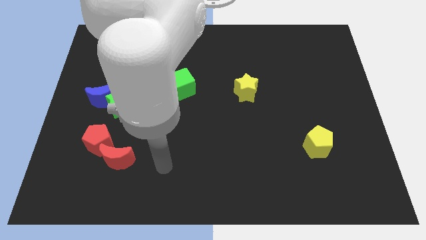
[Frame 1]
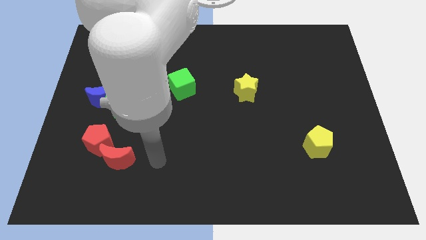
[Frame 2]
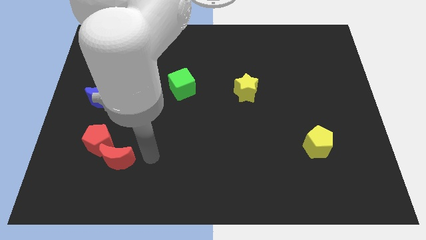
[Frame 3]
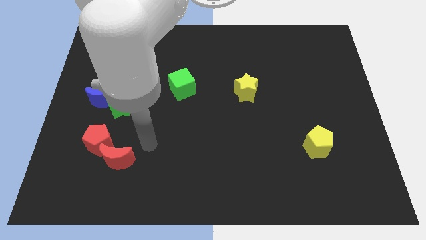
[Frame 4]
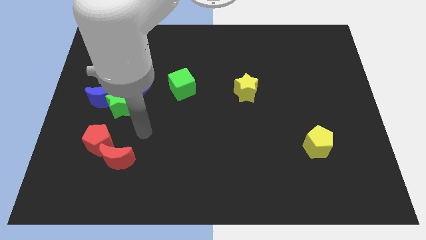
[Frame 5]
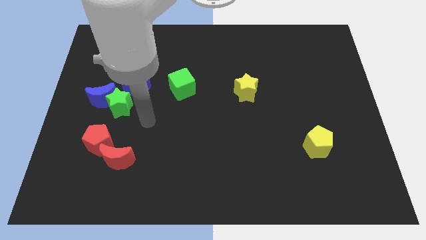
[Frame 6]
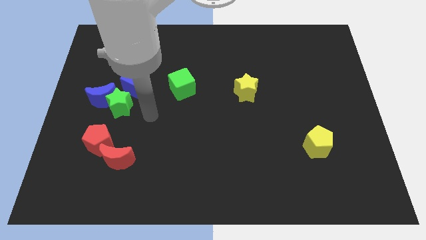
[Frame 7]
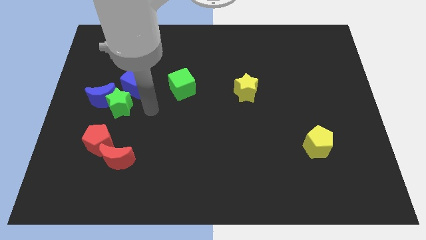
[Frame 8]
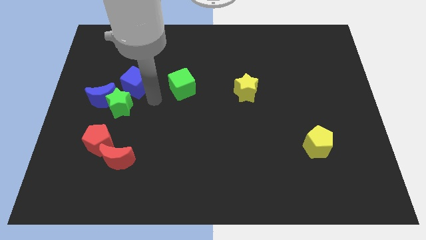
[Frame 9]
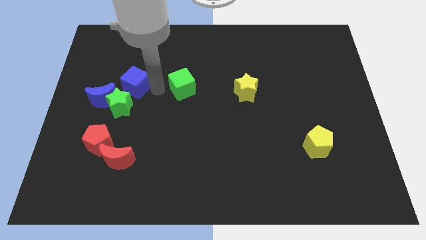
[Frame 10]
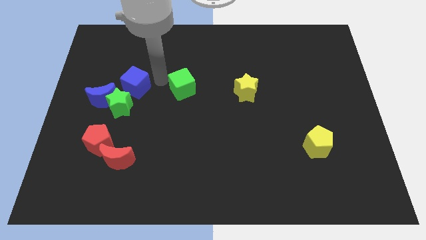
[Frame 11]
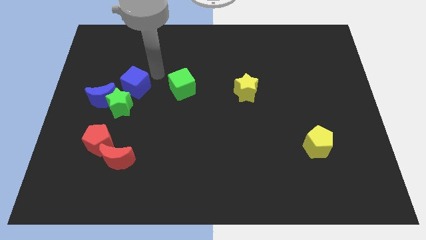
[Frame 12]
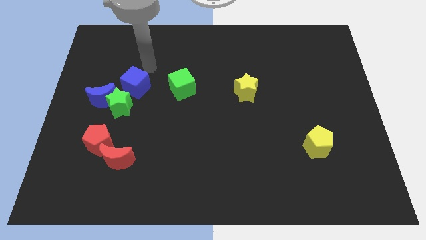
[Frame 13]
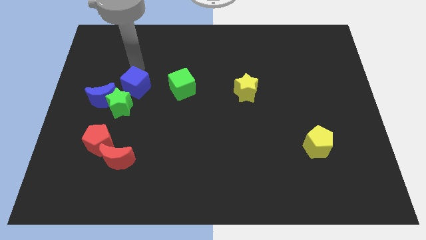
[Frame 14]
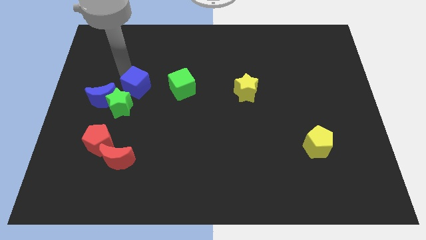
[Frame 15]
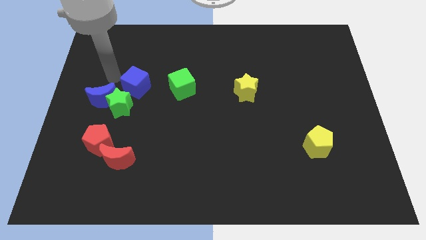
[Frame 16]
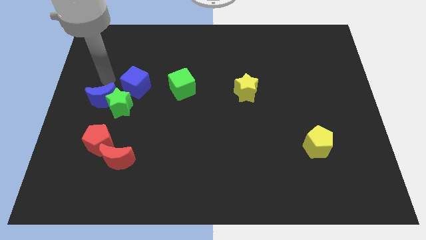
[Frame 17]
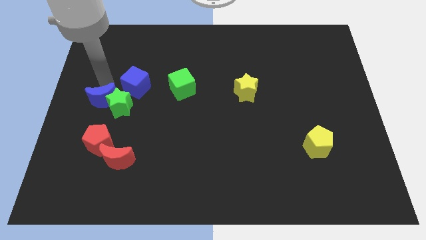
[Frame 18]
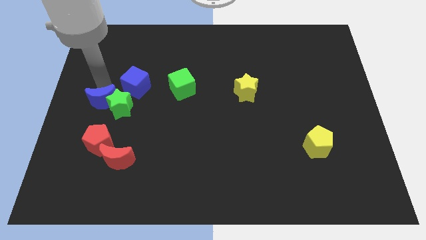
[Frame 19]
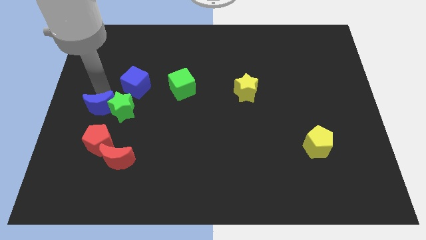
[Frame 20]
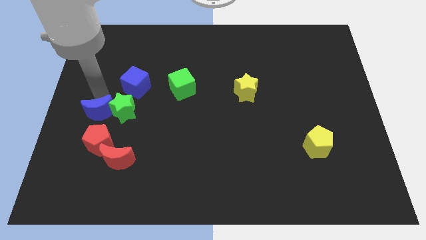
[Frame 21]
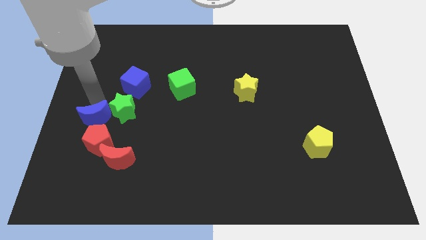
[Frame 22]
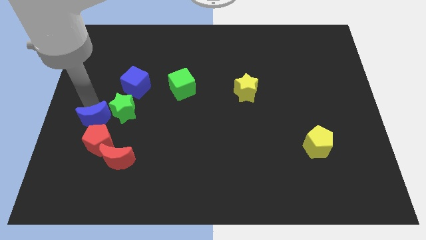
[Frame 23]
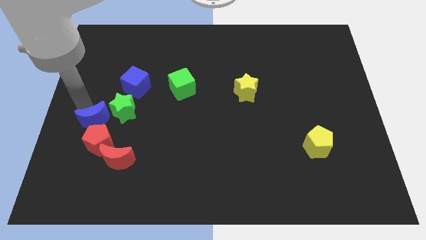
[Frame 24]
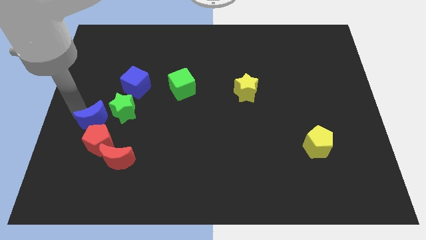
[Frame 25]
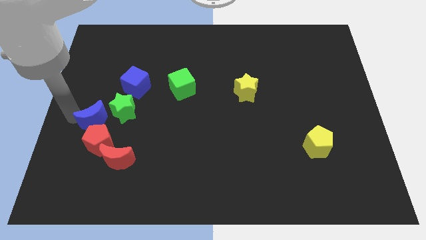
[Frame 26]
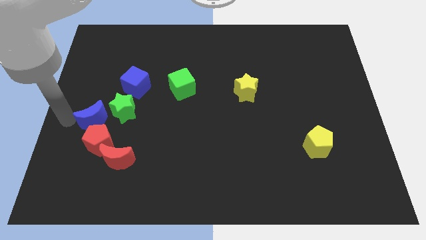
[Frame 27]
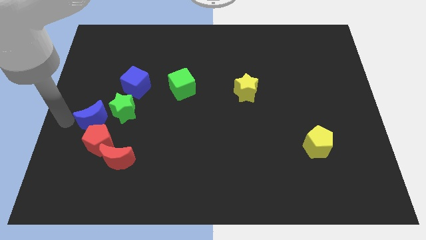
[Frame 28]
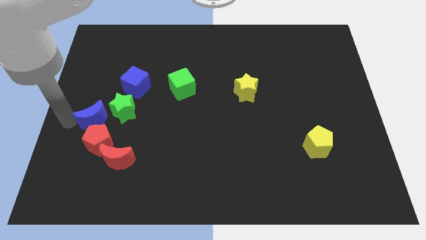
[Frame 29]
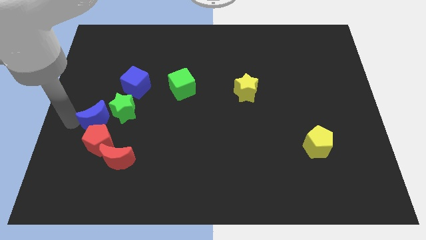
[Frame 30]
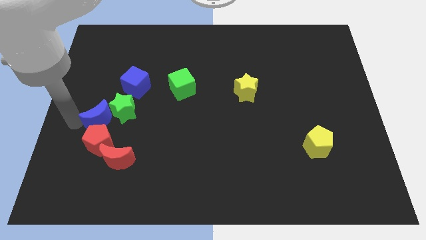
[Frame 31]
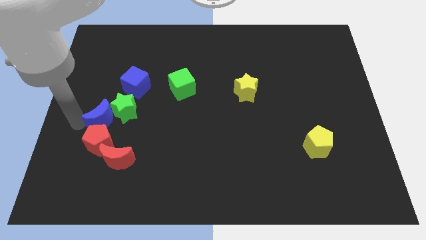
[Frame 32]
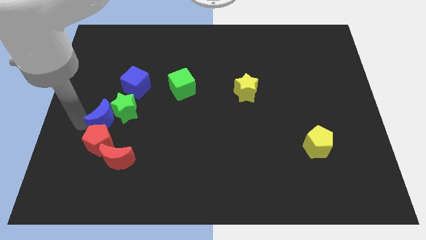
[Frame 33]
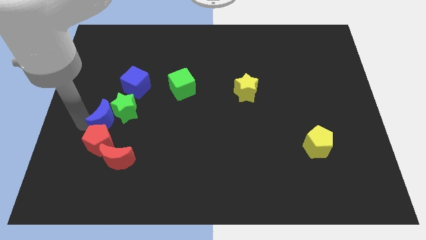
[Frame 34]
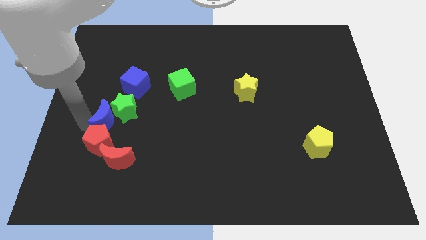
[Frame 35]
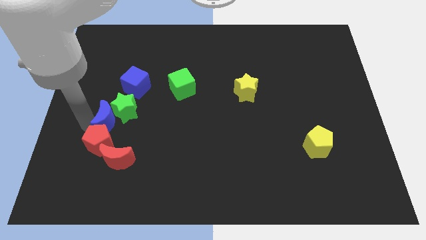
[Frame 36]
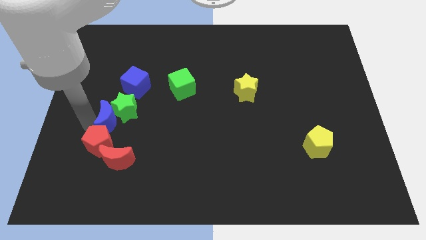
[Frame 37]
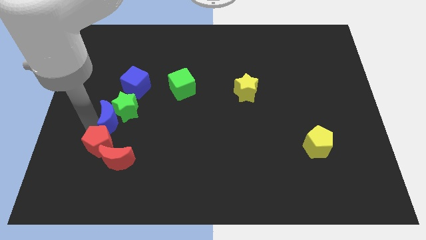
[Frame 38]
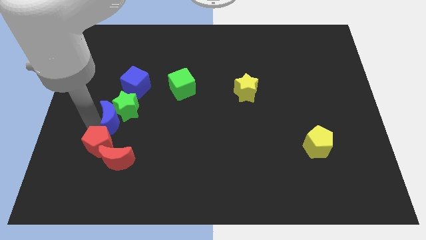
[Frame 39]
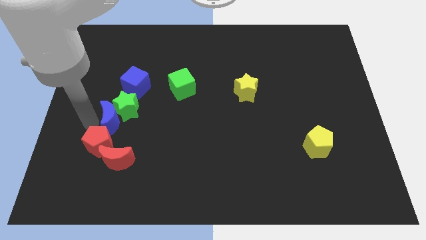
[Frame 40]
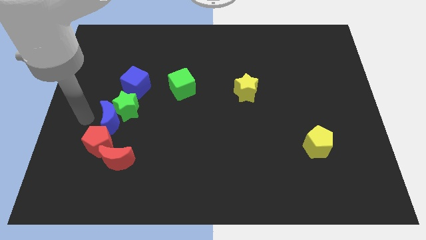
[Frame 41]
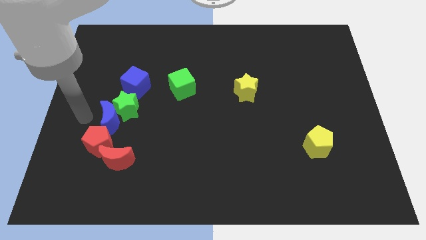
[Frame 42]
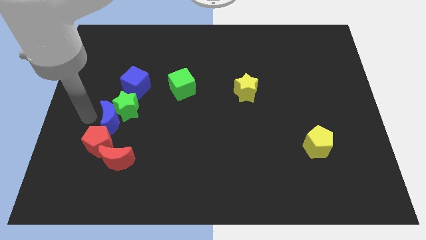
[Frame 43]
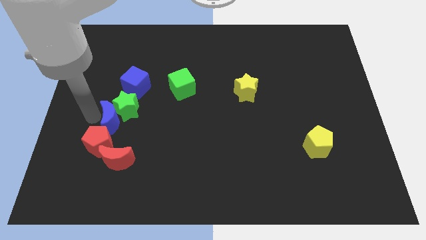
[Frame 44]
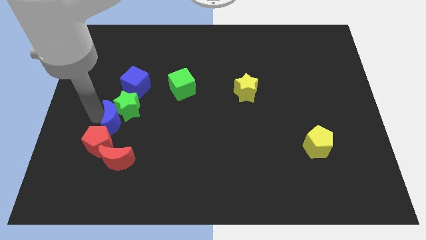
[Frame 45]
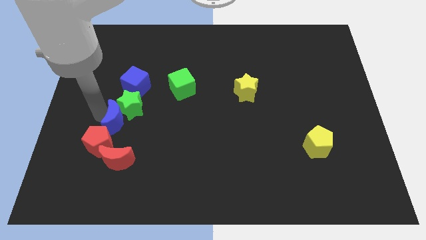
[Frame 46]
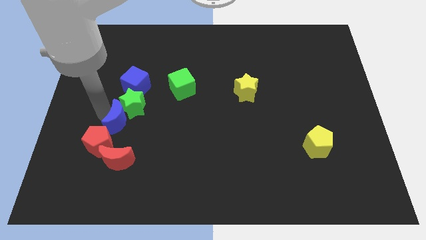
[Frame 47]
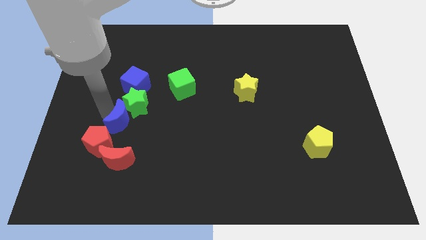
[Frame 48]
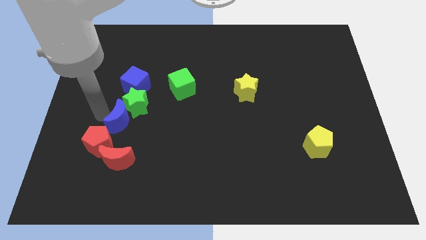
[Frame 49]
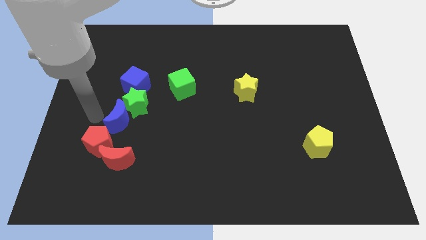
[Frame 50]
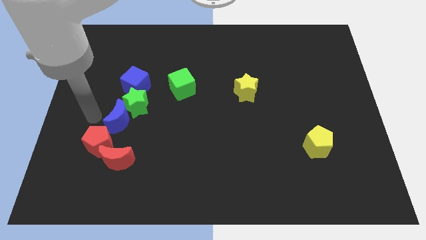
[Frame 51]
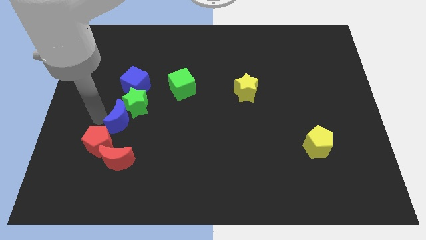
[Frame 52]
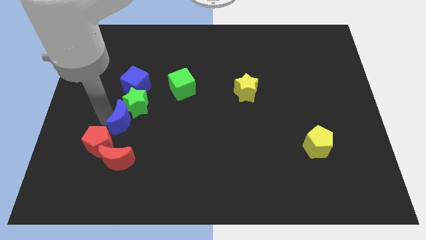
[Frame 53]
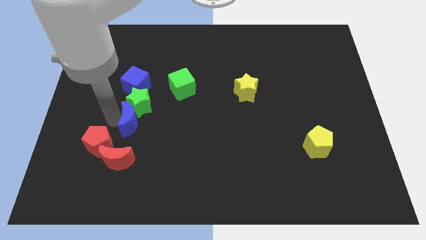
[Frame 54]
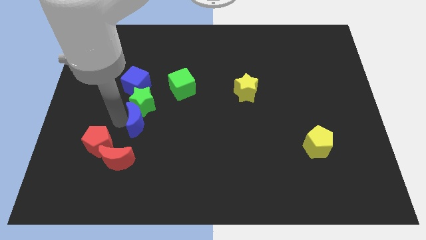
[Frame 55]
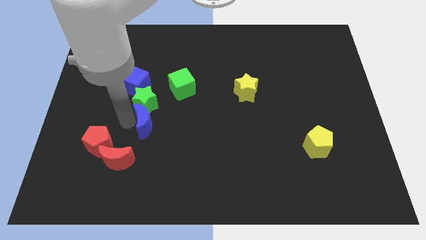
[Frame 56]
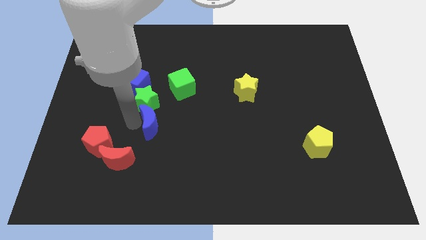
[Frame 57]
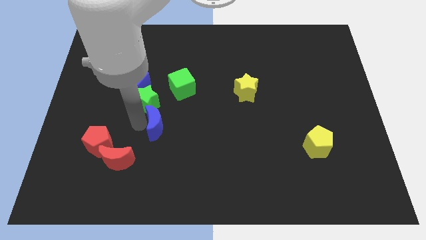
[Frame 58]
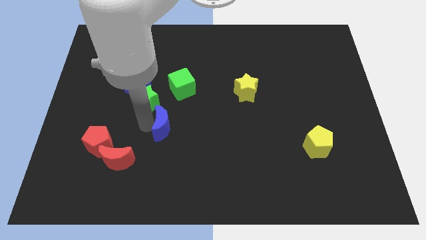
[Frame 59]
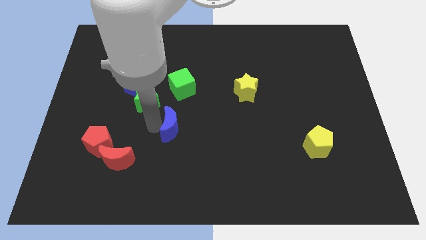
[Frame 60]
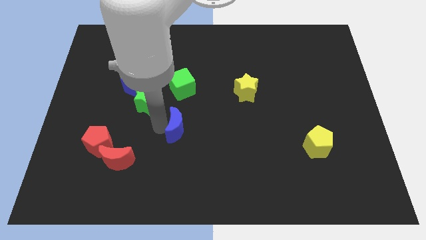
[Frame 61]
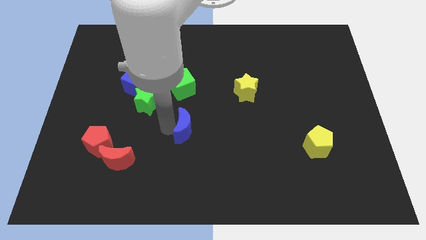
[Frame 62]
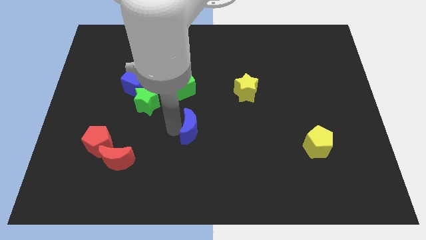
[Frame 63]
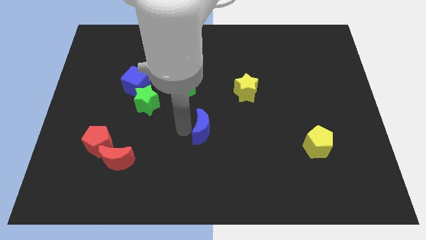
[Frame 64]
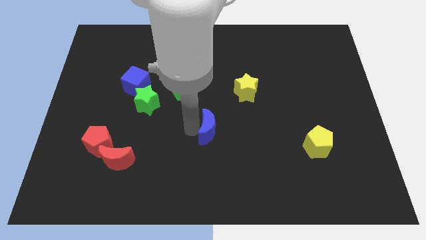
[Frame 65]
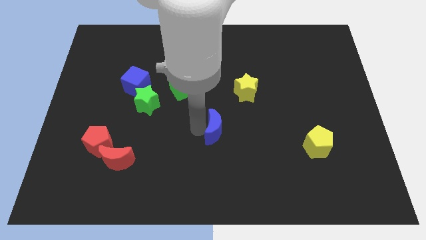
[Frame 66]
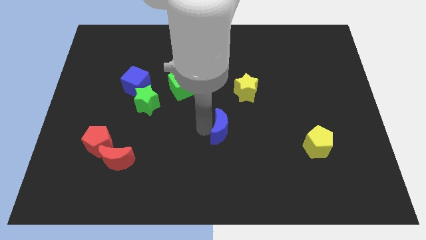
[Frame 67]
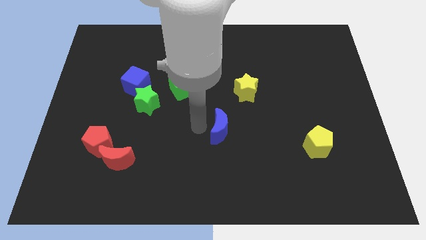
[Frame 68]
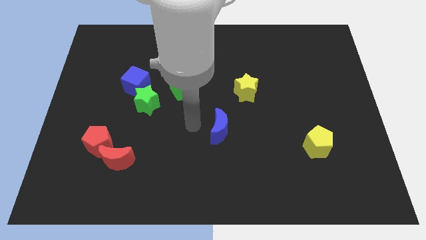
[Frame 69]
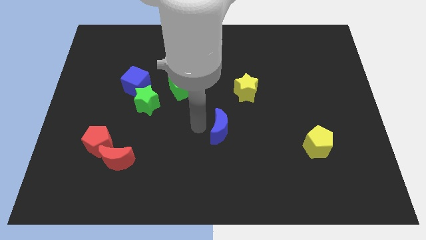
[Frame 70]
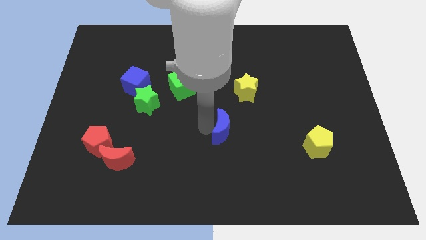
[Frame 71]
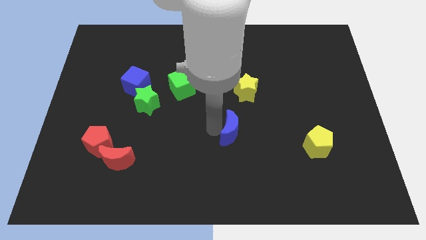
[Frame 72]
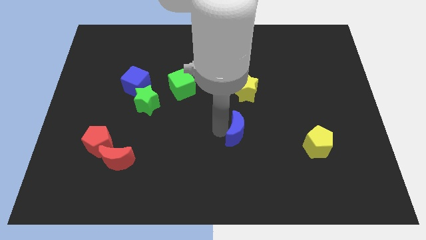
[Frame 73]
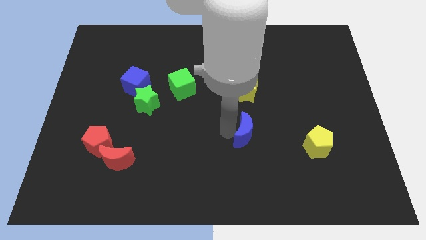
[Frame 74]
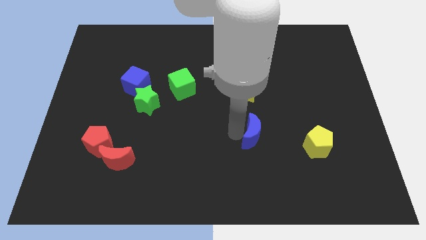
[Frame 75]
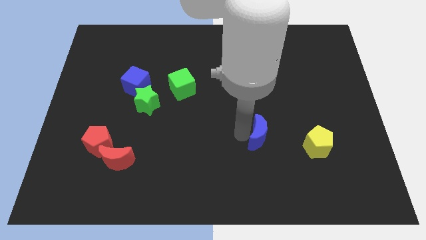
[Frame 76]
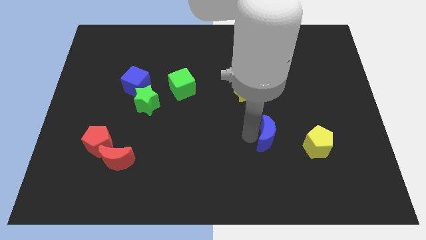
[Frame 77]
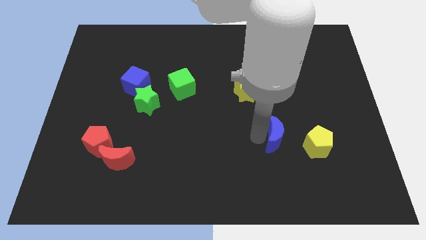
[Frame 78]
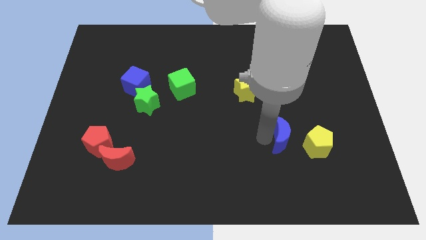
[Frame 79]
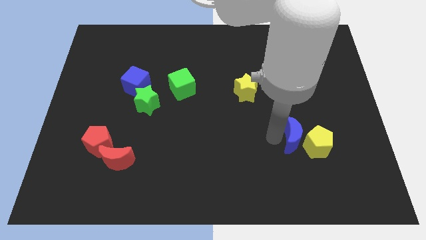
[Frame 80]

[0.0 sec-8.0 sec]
put the blue moon towards the yellow pentagon
